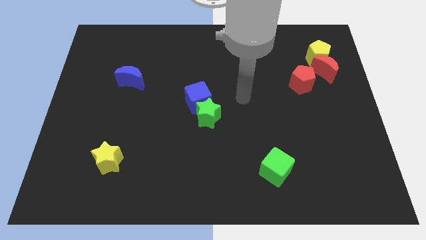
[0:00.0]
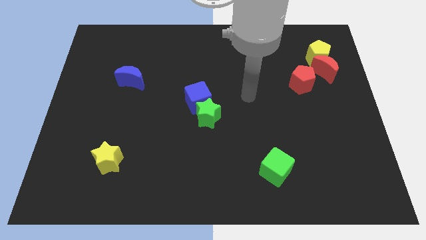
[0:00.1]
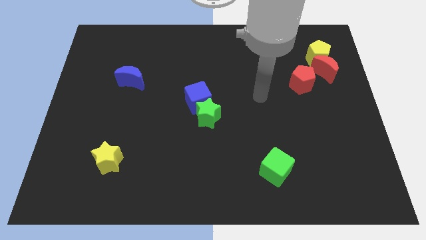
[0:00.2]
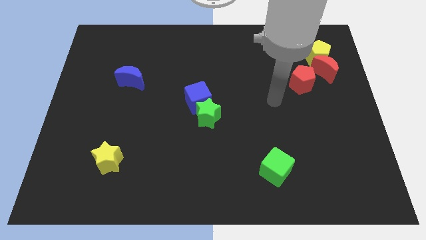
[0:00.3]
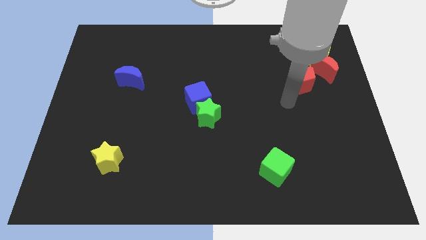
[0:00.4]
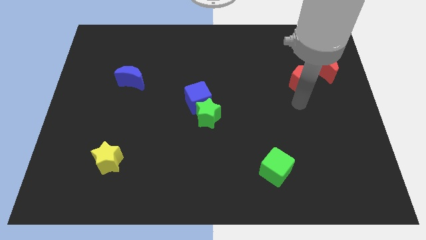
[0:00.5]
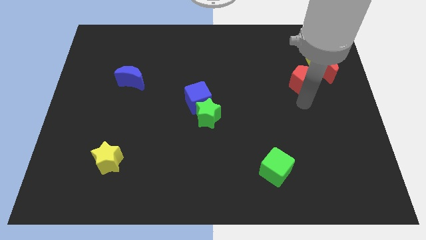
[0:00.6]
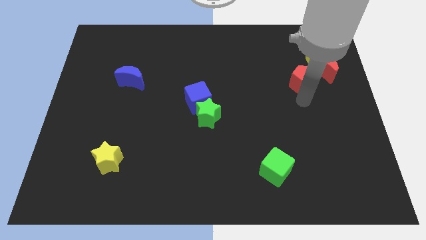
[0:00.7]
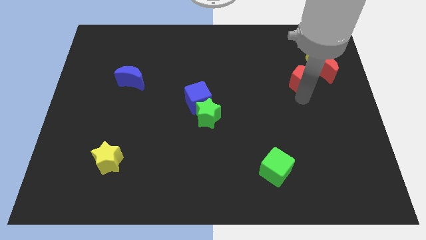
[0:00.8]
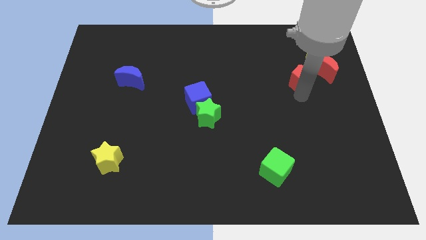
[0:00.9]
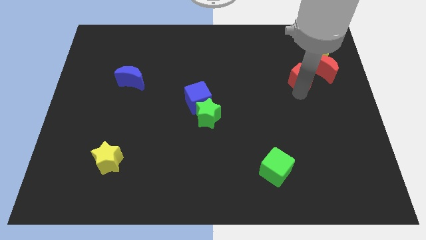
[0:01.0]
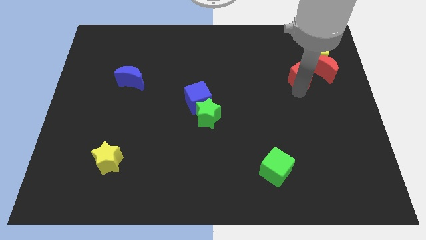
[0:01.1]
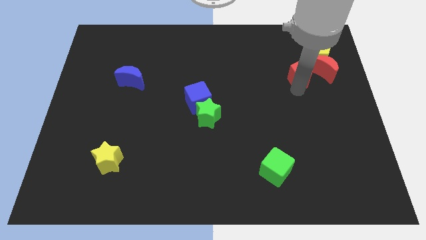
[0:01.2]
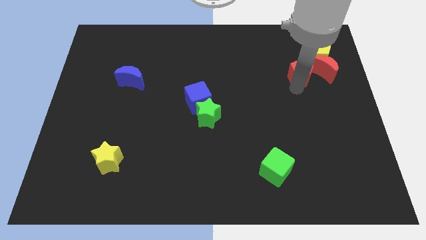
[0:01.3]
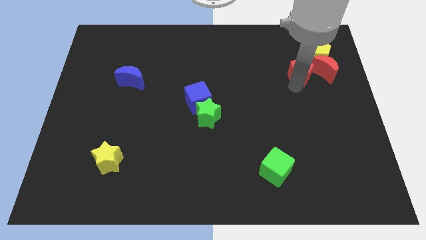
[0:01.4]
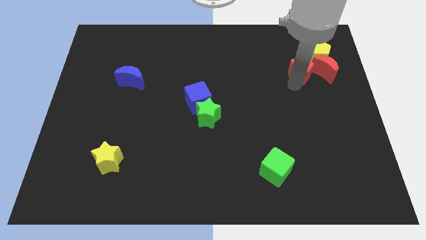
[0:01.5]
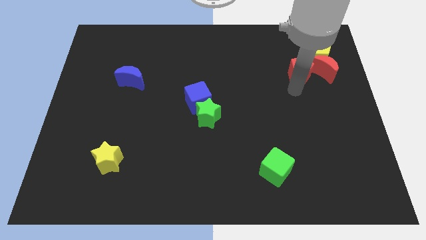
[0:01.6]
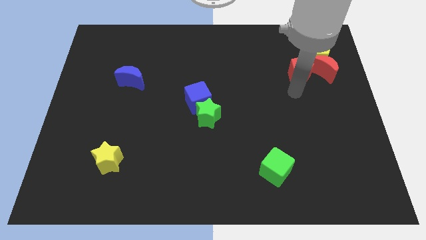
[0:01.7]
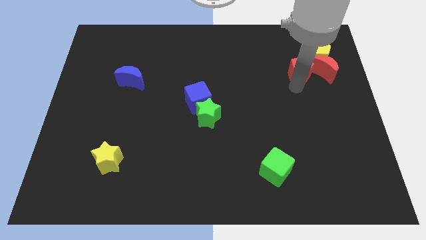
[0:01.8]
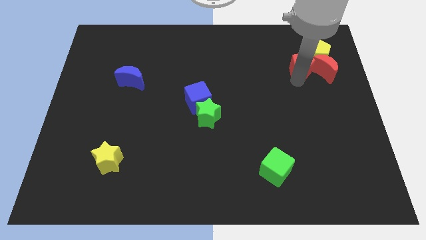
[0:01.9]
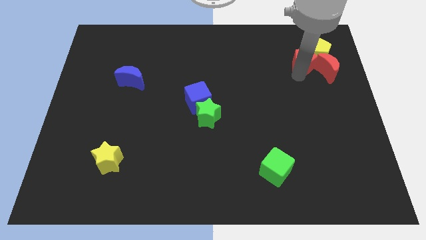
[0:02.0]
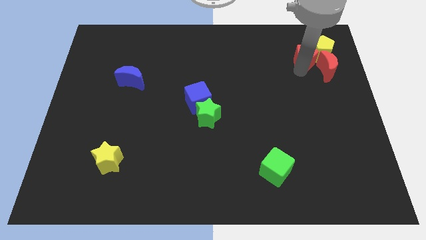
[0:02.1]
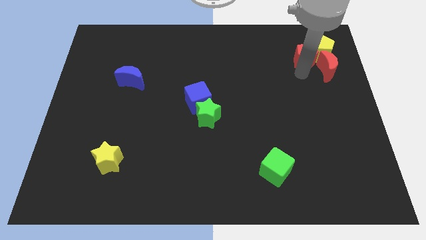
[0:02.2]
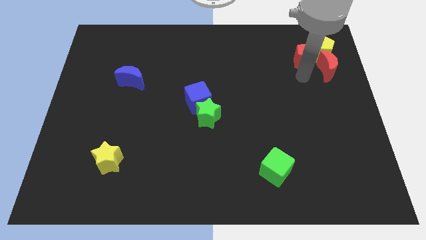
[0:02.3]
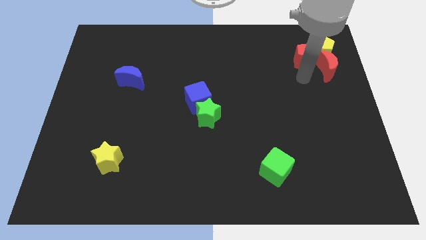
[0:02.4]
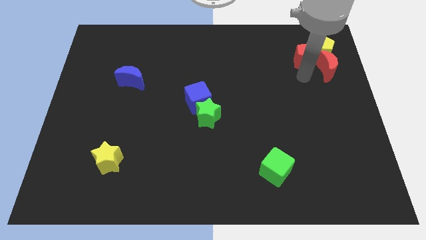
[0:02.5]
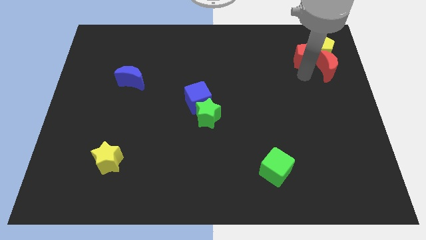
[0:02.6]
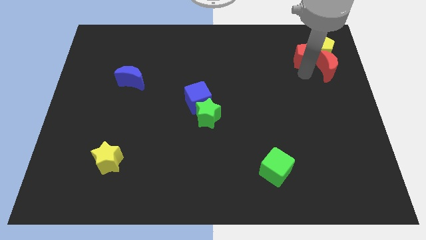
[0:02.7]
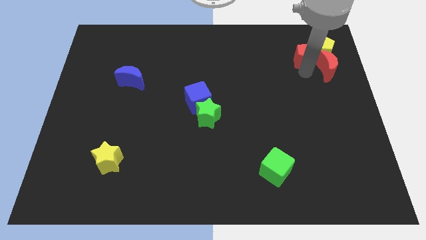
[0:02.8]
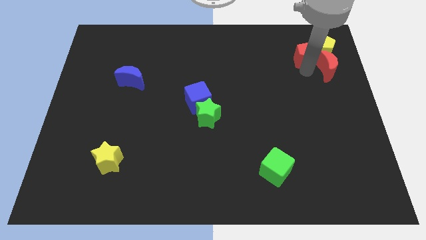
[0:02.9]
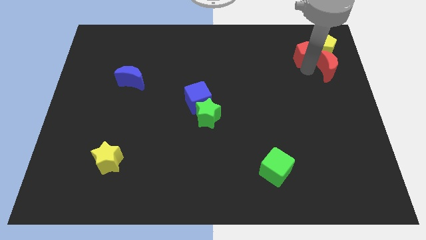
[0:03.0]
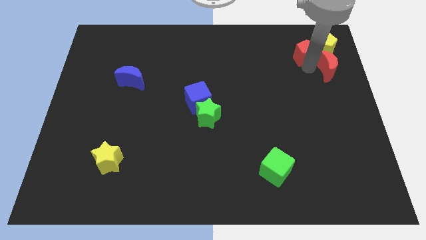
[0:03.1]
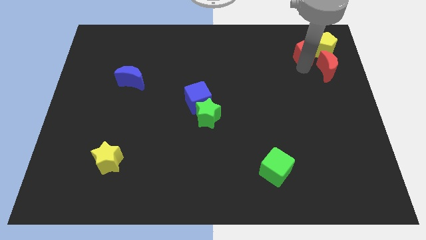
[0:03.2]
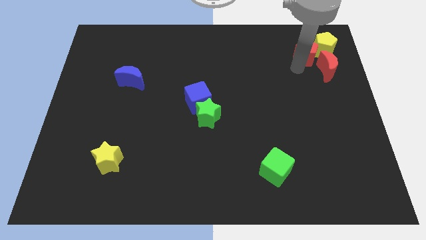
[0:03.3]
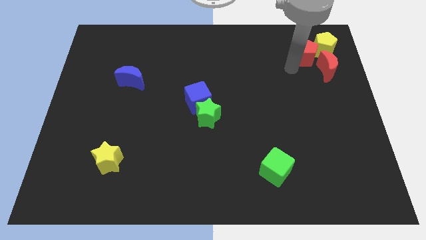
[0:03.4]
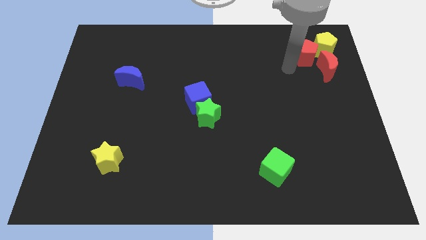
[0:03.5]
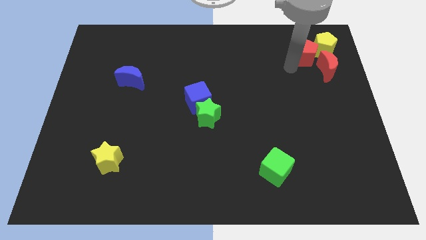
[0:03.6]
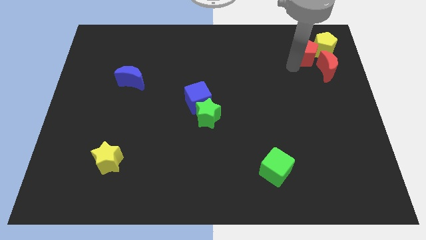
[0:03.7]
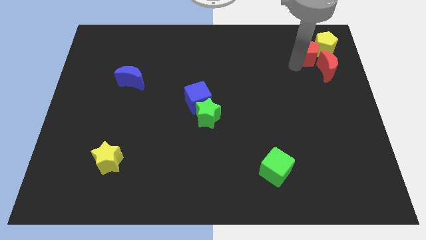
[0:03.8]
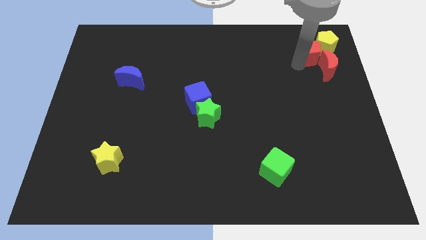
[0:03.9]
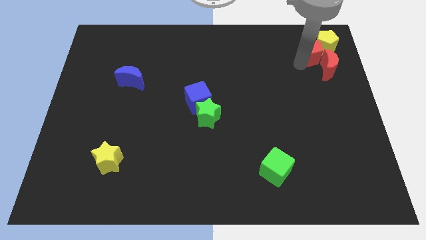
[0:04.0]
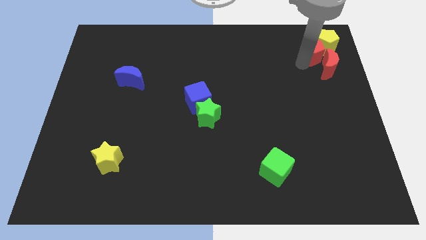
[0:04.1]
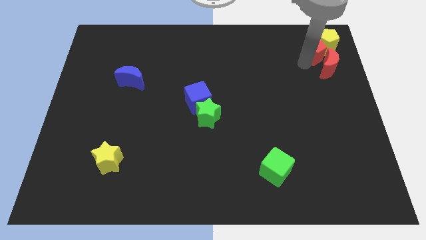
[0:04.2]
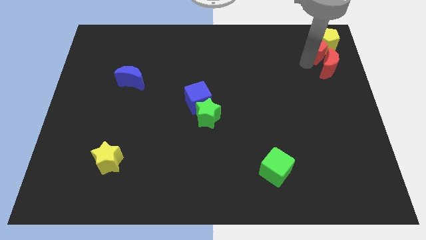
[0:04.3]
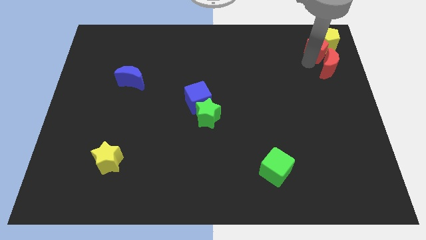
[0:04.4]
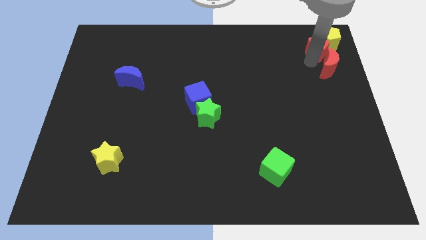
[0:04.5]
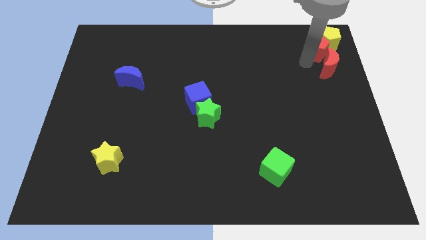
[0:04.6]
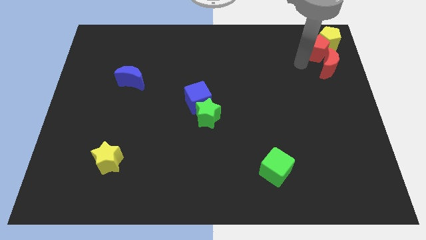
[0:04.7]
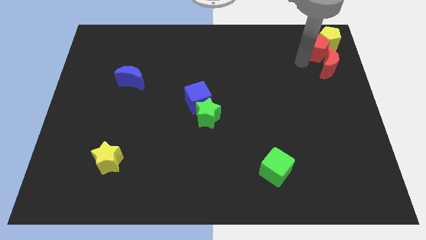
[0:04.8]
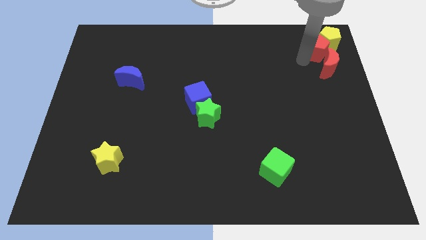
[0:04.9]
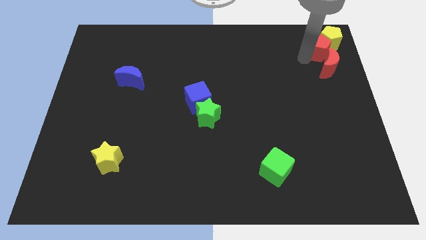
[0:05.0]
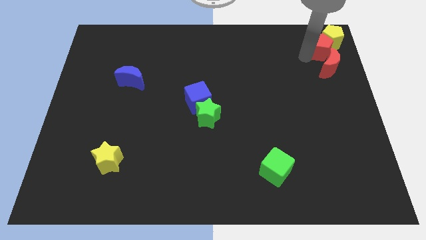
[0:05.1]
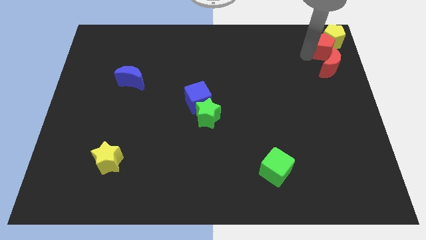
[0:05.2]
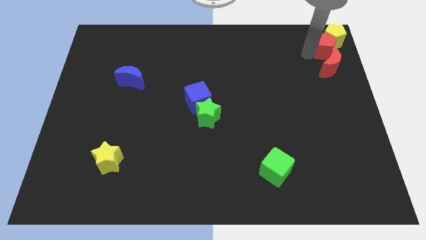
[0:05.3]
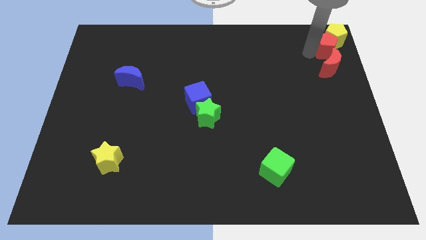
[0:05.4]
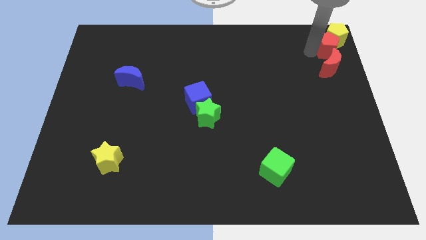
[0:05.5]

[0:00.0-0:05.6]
move the red pentagon to the top right of the board
